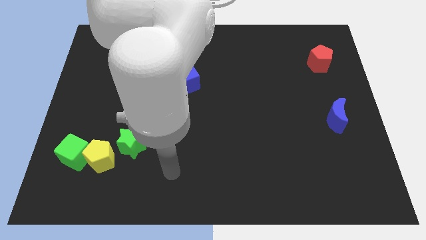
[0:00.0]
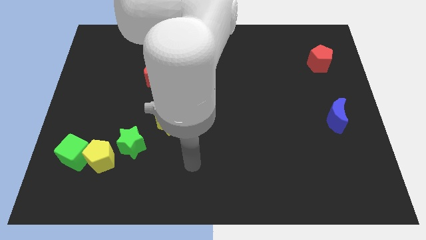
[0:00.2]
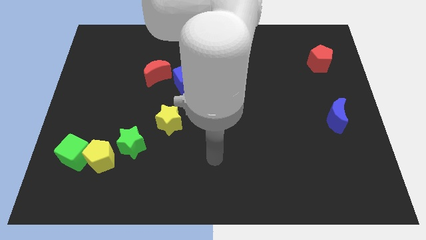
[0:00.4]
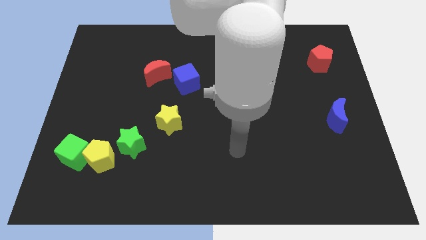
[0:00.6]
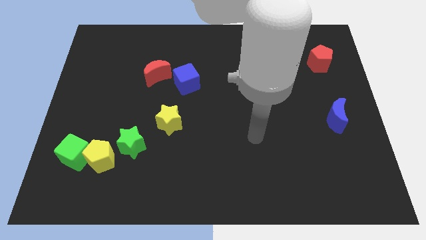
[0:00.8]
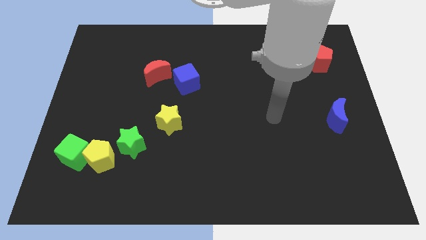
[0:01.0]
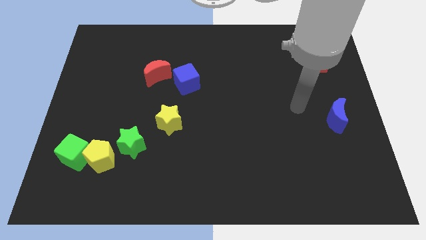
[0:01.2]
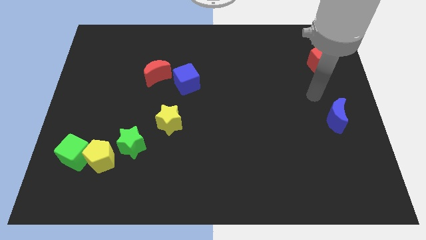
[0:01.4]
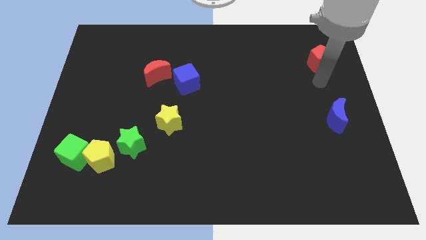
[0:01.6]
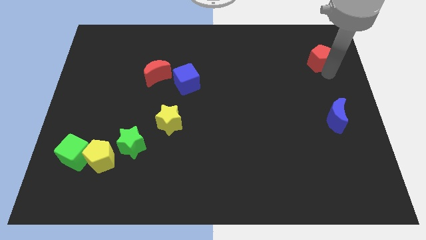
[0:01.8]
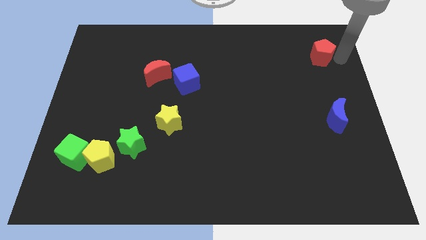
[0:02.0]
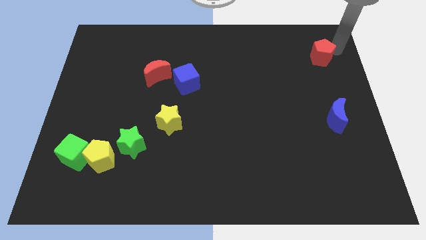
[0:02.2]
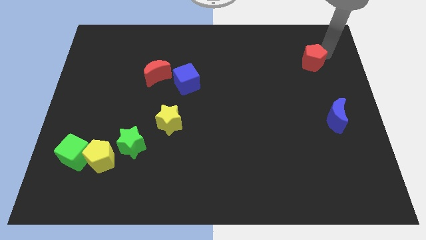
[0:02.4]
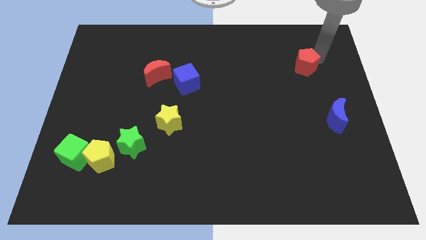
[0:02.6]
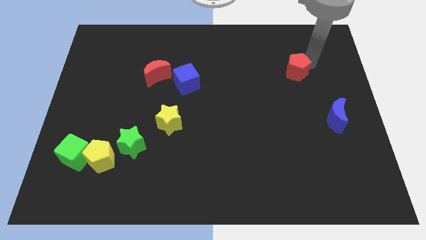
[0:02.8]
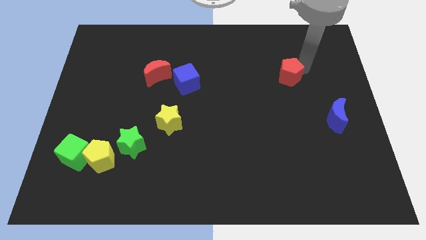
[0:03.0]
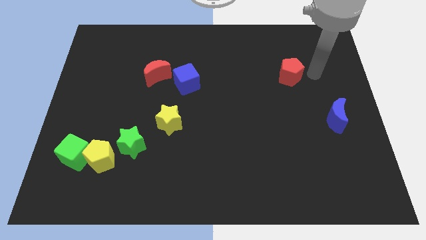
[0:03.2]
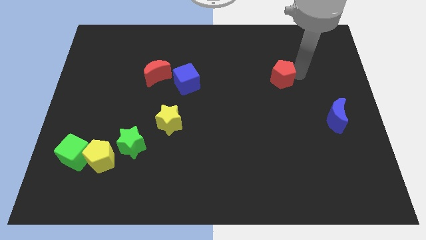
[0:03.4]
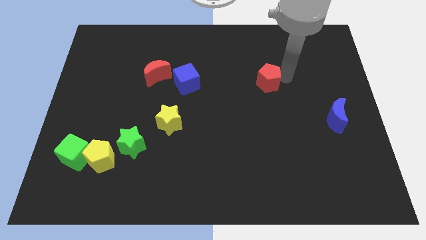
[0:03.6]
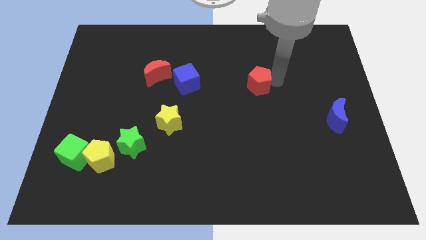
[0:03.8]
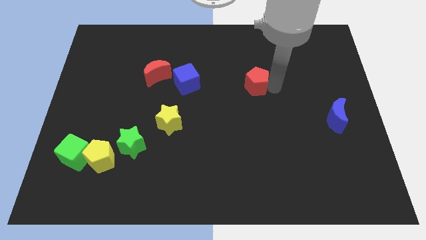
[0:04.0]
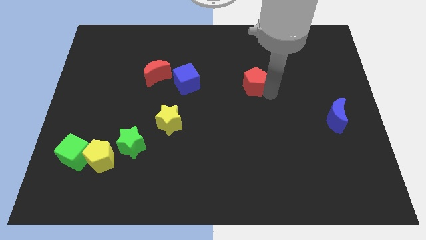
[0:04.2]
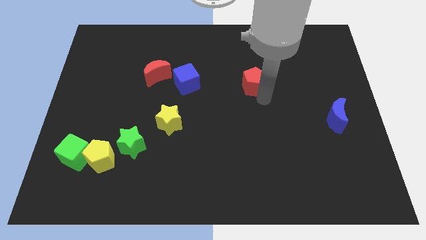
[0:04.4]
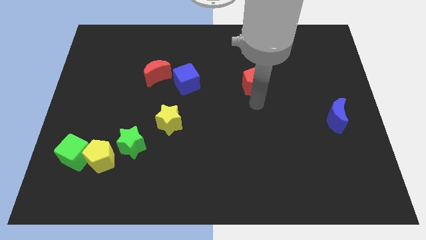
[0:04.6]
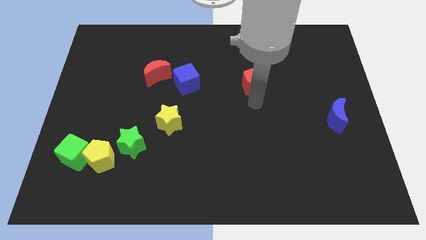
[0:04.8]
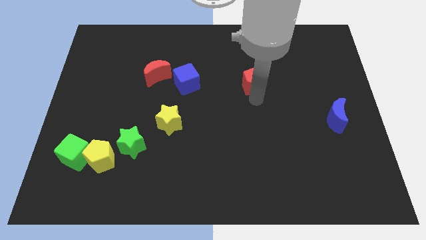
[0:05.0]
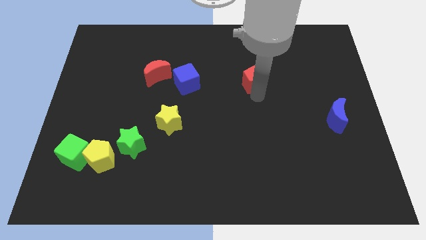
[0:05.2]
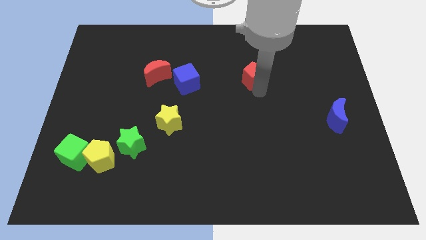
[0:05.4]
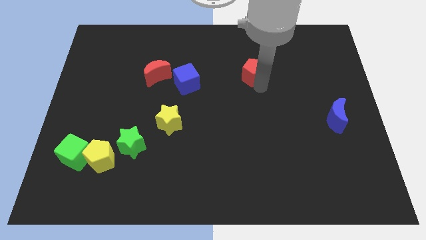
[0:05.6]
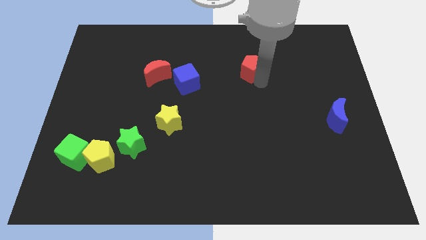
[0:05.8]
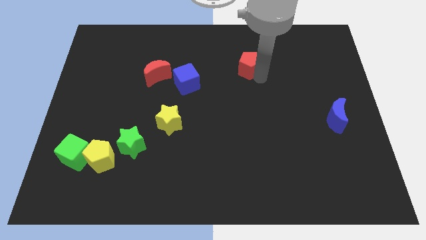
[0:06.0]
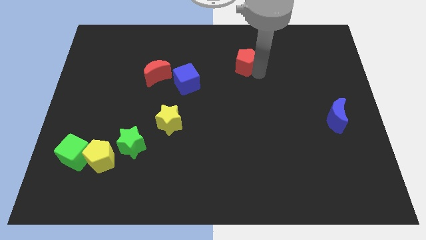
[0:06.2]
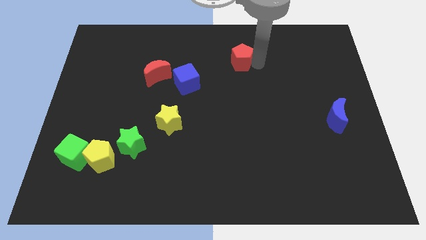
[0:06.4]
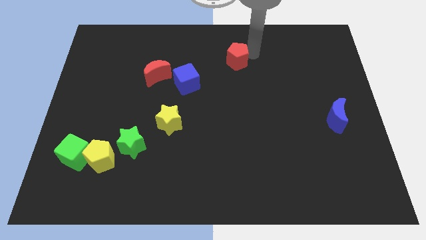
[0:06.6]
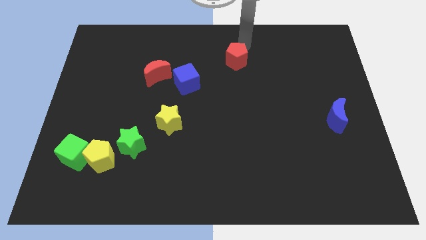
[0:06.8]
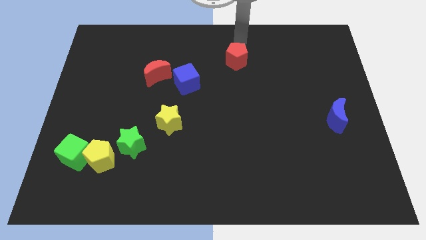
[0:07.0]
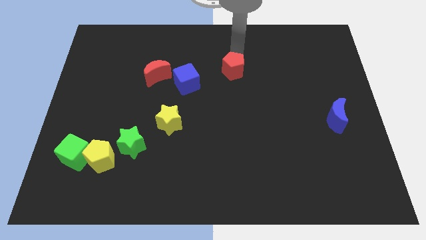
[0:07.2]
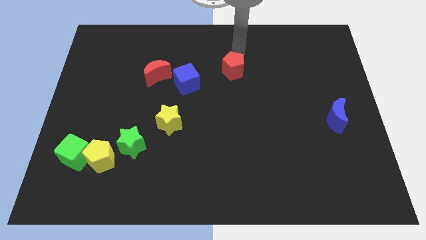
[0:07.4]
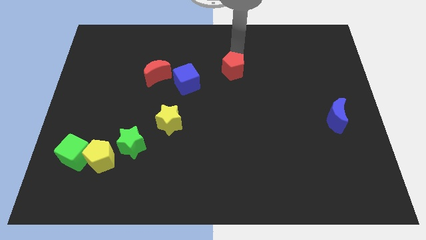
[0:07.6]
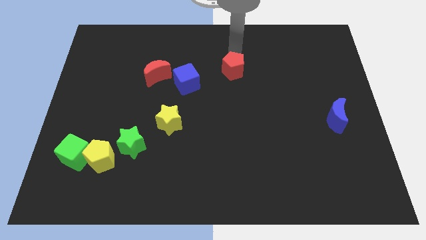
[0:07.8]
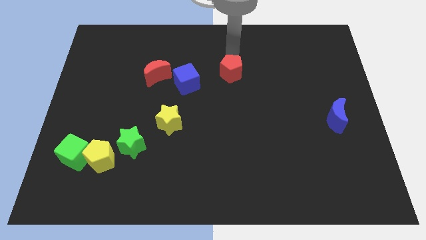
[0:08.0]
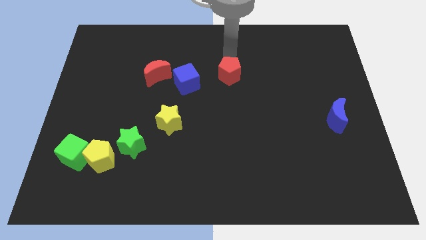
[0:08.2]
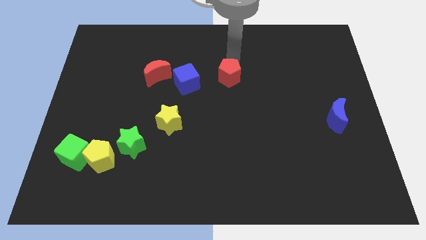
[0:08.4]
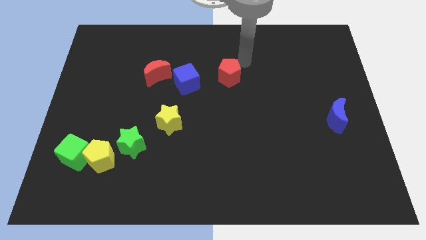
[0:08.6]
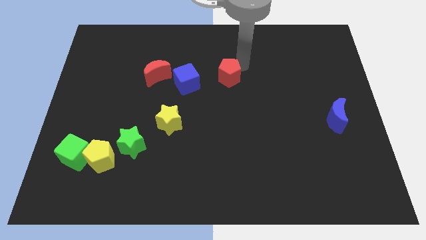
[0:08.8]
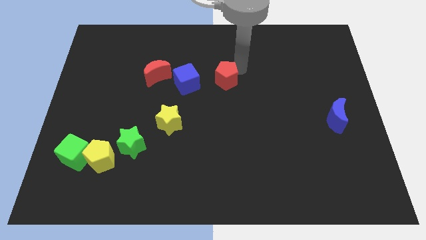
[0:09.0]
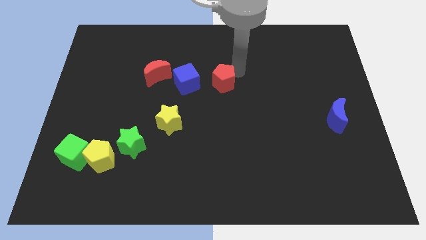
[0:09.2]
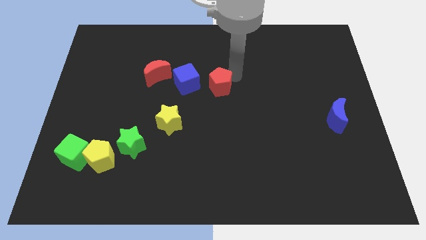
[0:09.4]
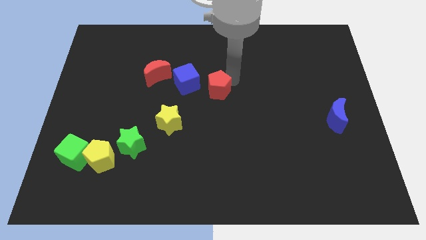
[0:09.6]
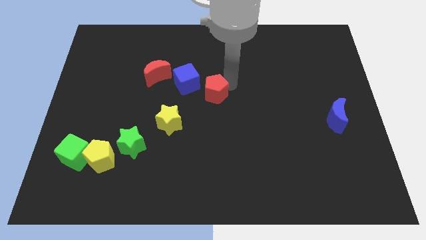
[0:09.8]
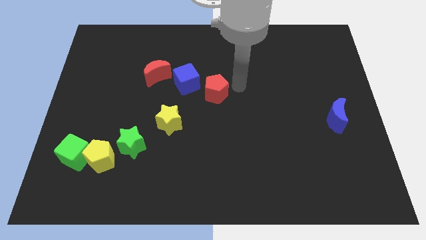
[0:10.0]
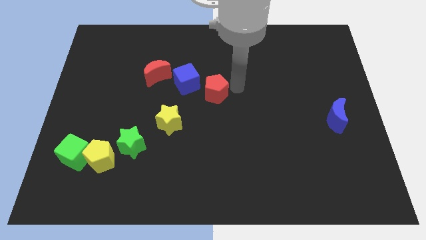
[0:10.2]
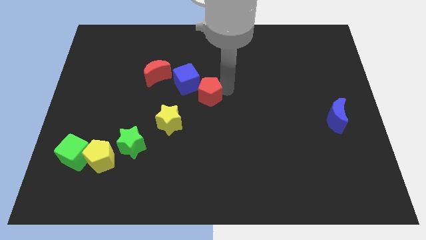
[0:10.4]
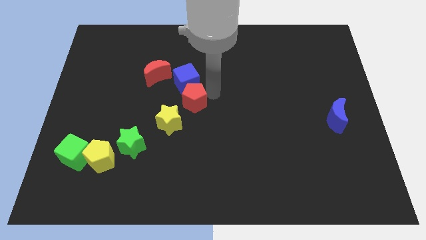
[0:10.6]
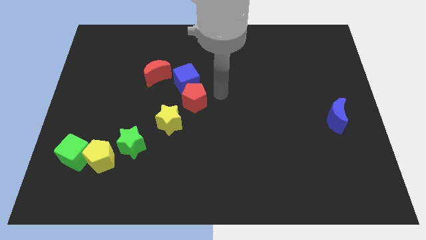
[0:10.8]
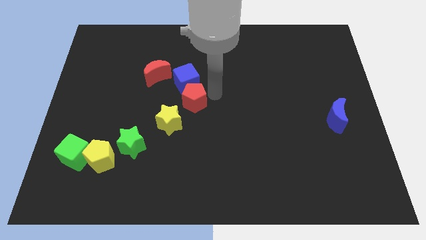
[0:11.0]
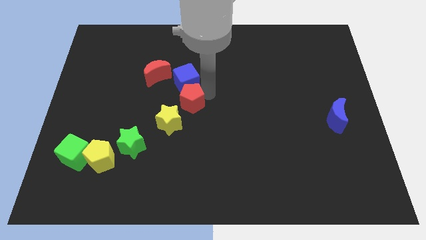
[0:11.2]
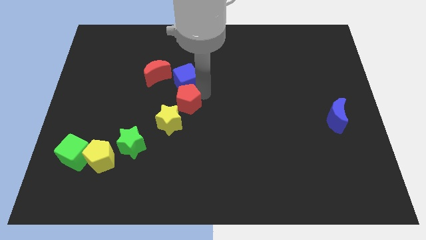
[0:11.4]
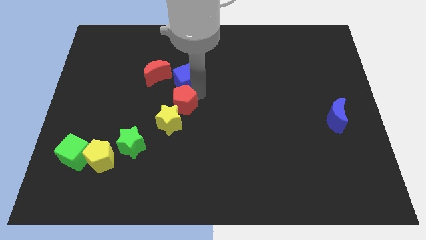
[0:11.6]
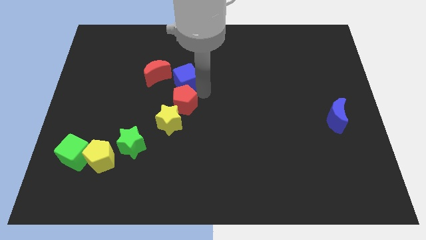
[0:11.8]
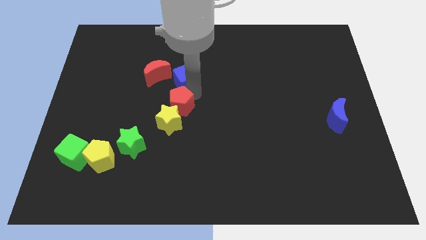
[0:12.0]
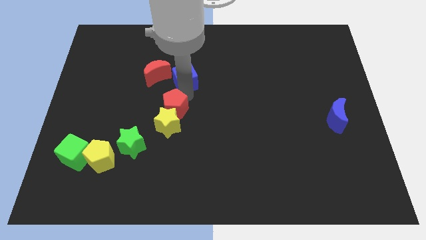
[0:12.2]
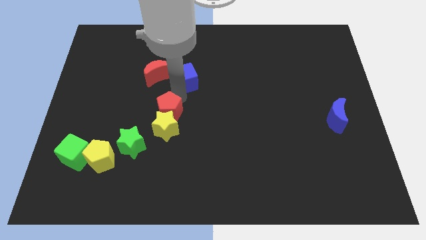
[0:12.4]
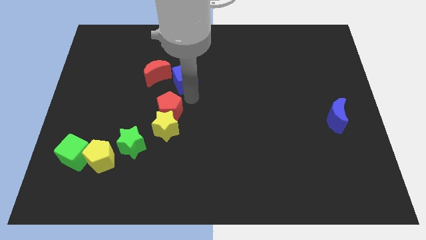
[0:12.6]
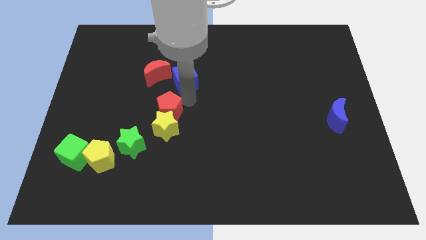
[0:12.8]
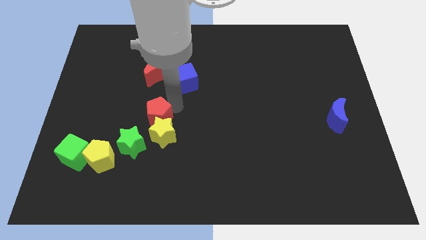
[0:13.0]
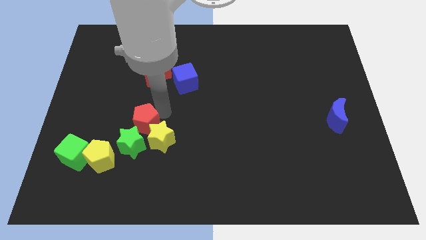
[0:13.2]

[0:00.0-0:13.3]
push the red pentagon to the top right side of the yellow pentagon

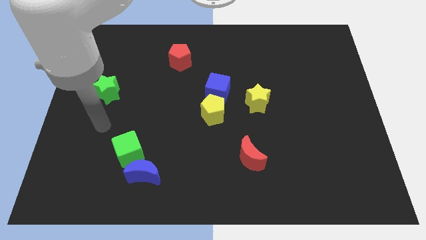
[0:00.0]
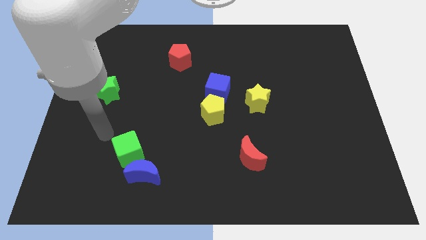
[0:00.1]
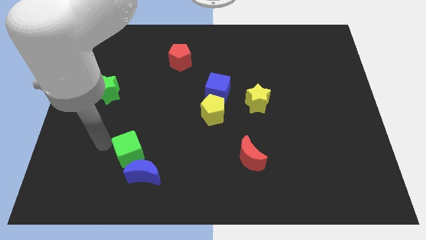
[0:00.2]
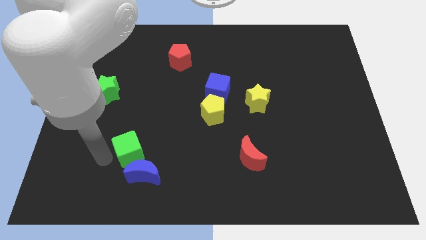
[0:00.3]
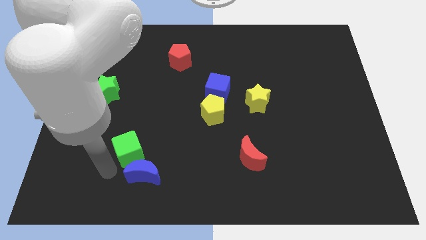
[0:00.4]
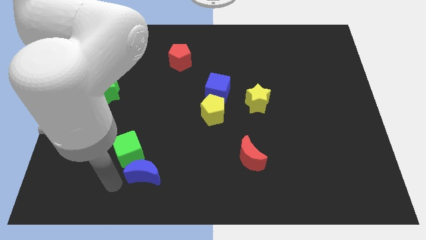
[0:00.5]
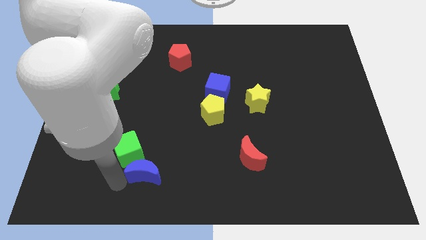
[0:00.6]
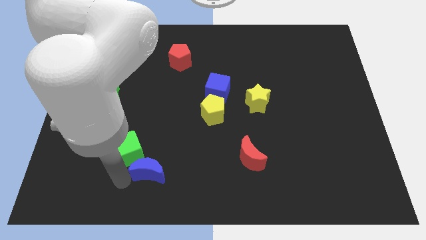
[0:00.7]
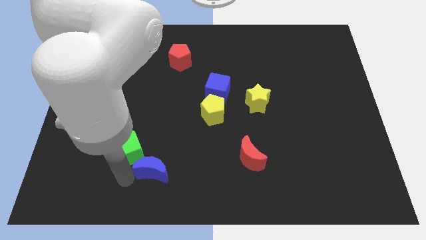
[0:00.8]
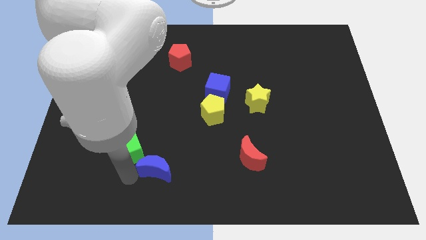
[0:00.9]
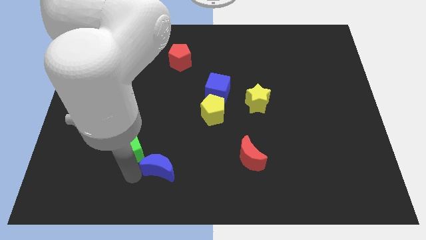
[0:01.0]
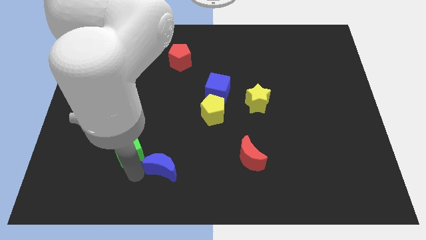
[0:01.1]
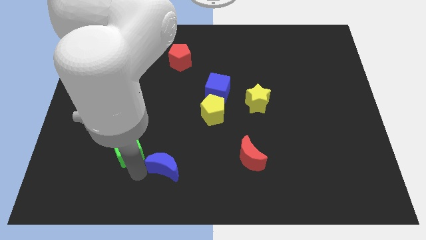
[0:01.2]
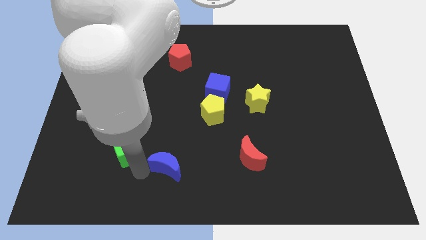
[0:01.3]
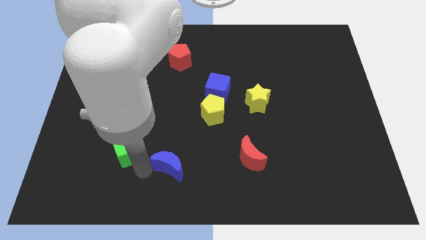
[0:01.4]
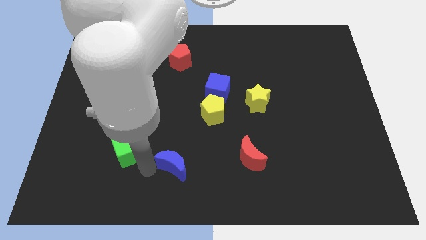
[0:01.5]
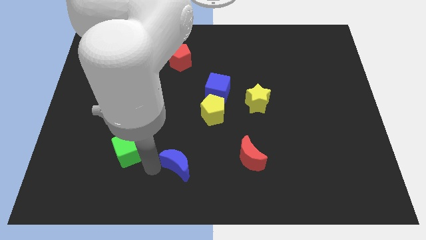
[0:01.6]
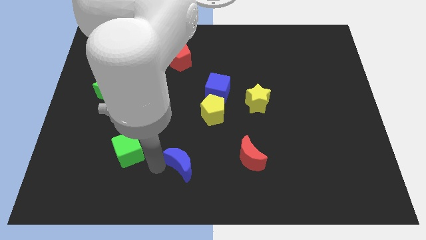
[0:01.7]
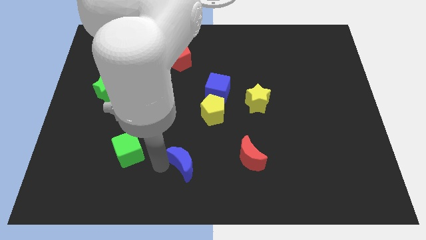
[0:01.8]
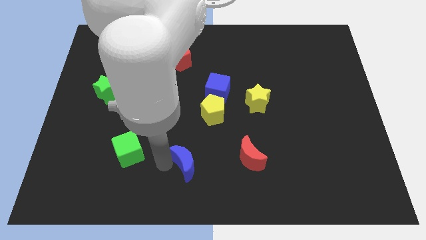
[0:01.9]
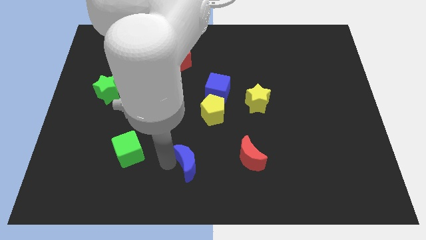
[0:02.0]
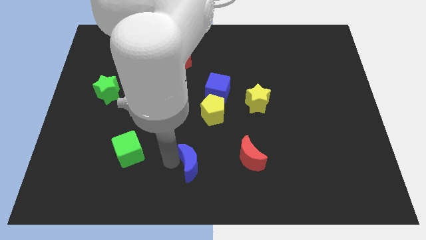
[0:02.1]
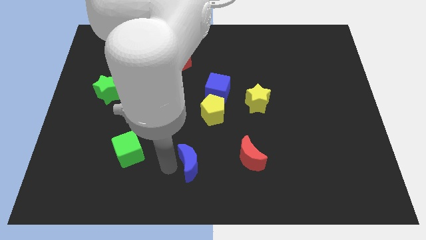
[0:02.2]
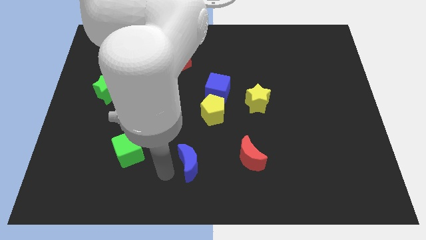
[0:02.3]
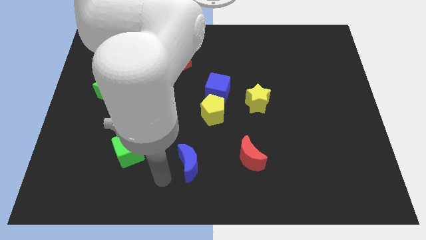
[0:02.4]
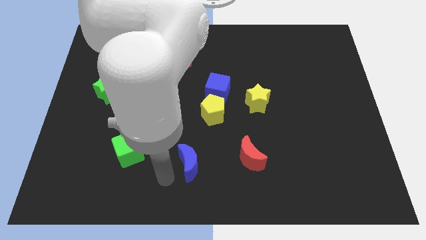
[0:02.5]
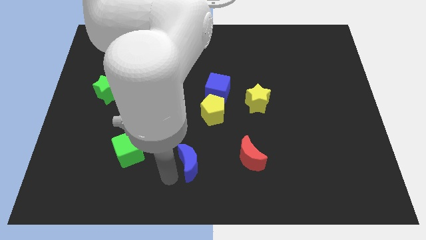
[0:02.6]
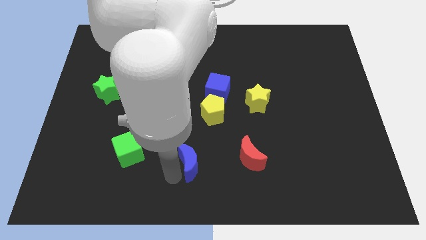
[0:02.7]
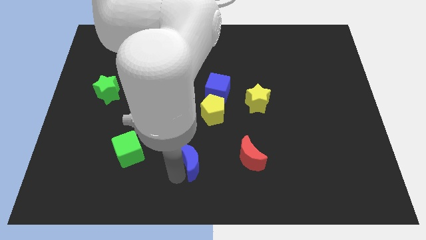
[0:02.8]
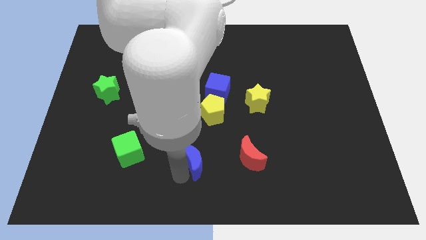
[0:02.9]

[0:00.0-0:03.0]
slide the blue moon to the bottom side of the yellow pentagon
